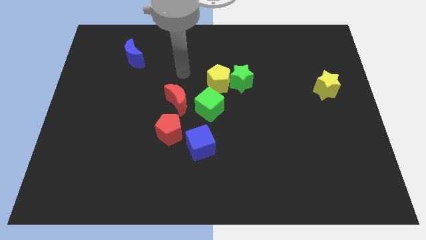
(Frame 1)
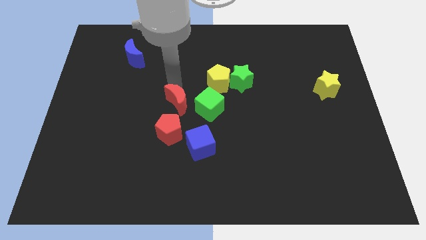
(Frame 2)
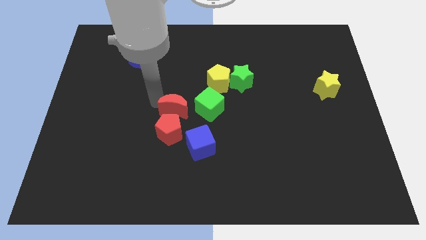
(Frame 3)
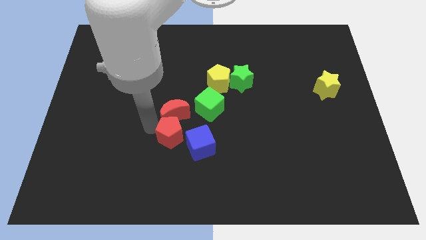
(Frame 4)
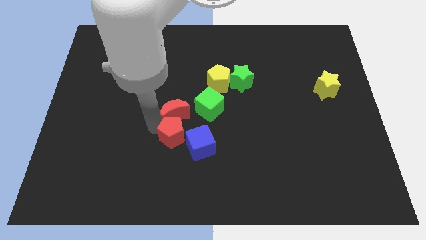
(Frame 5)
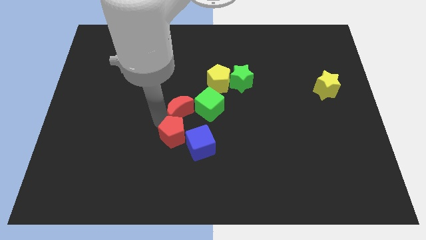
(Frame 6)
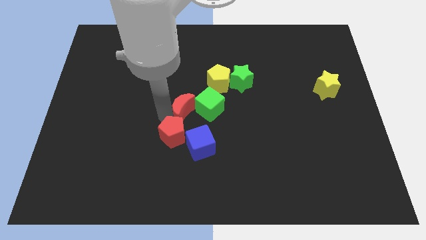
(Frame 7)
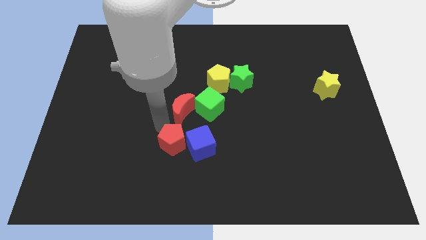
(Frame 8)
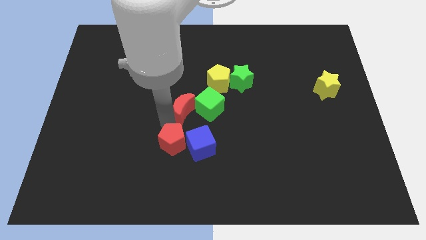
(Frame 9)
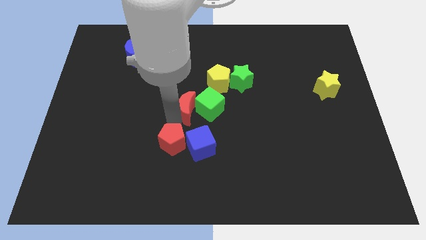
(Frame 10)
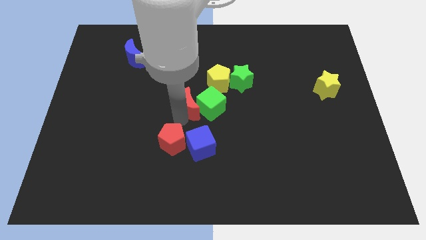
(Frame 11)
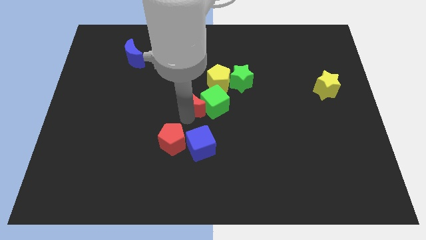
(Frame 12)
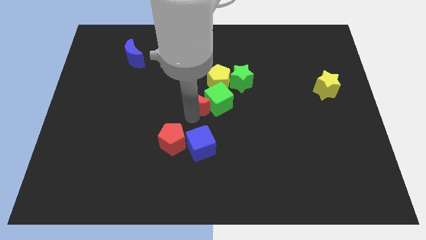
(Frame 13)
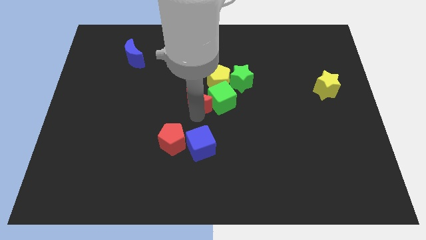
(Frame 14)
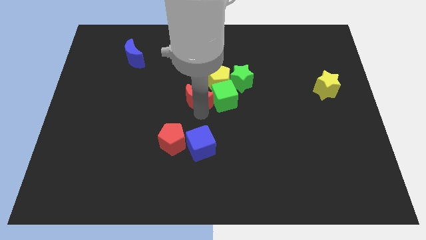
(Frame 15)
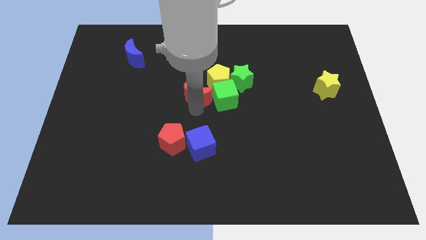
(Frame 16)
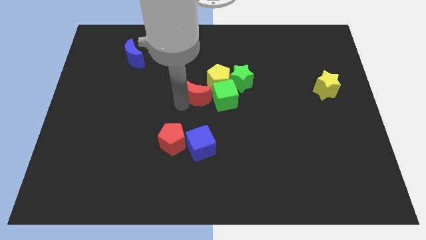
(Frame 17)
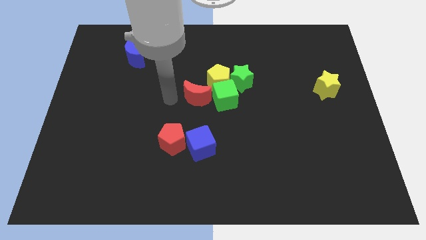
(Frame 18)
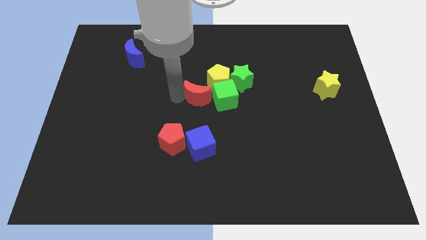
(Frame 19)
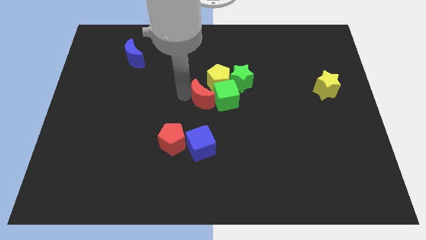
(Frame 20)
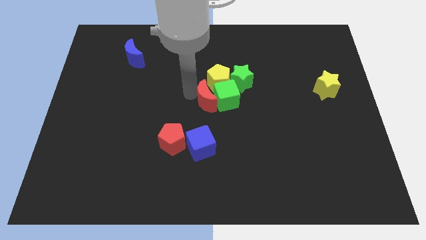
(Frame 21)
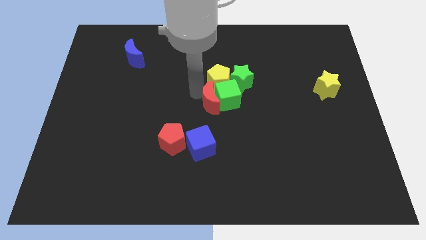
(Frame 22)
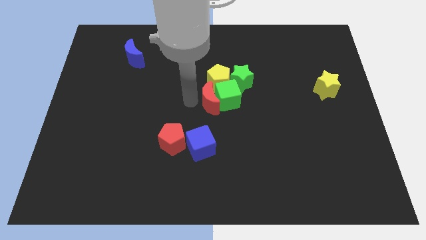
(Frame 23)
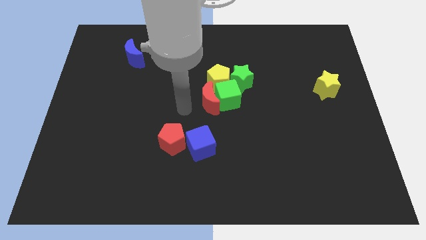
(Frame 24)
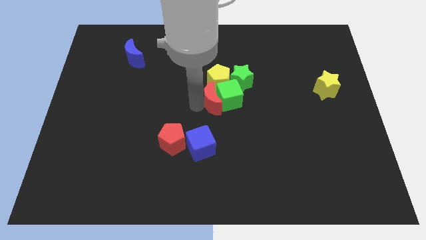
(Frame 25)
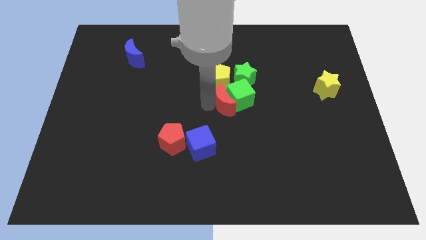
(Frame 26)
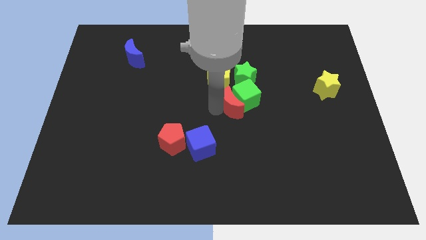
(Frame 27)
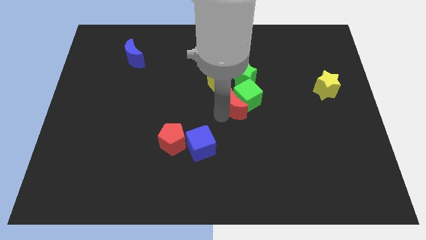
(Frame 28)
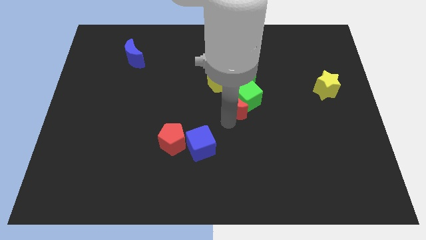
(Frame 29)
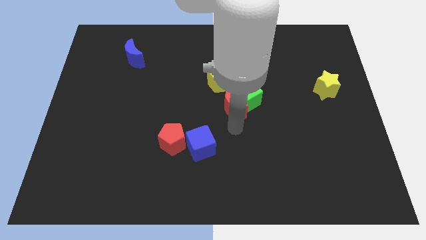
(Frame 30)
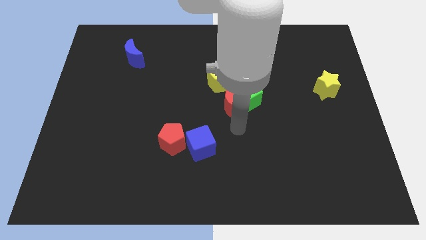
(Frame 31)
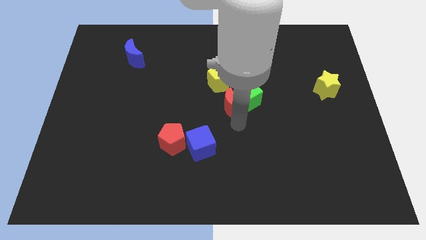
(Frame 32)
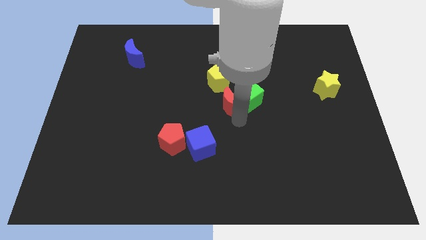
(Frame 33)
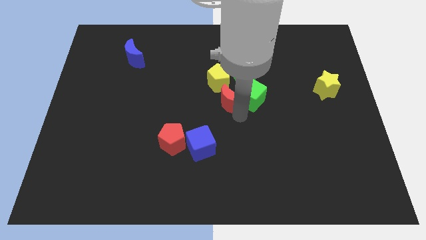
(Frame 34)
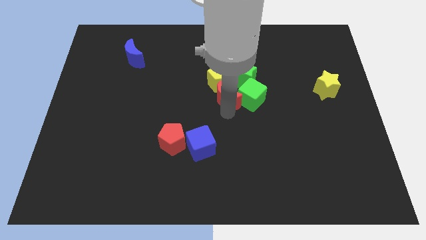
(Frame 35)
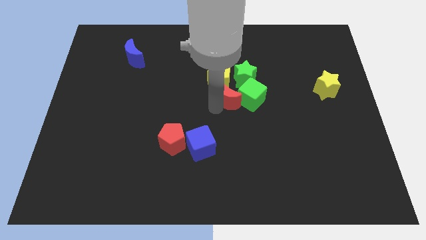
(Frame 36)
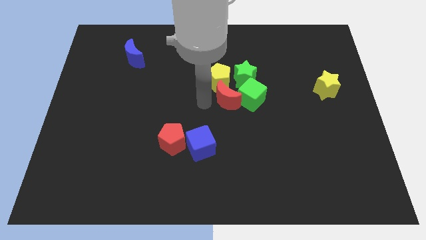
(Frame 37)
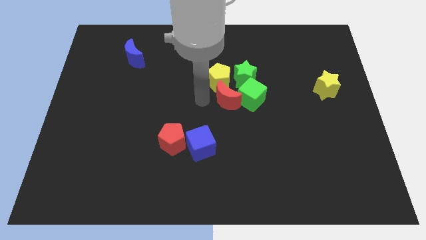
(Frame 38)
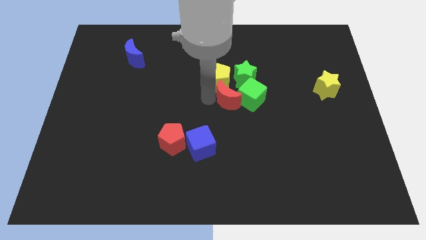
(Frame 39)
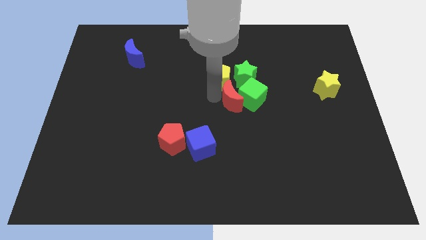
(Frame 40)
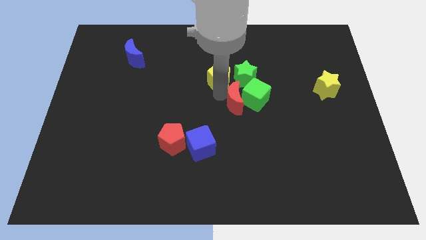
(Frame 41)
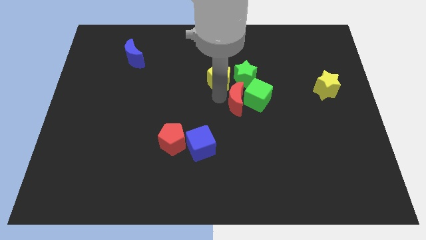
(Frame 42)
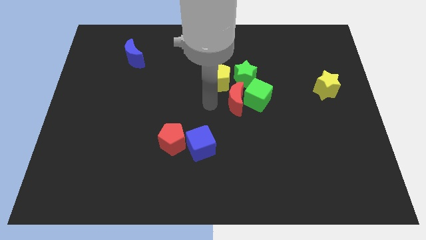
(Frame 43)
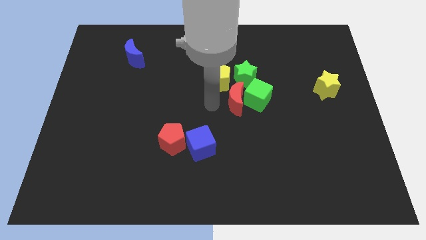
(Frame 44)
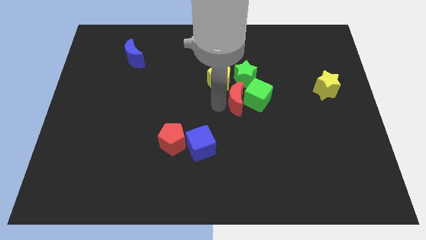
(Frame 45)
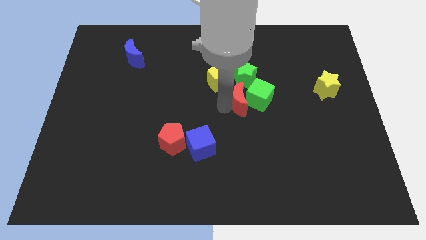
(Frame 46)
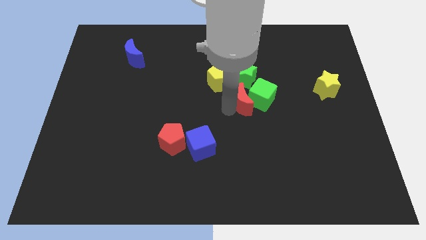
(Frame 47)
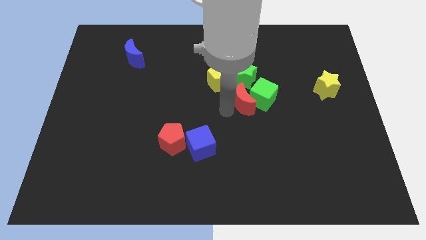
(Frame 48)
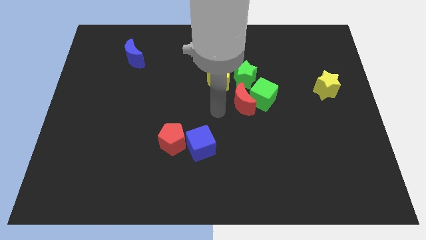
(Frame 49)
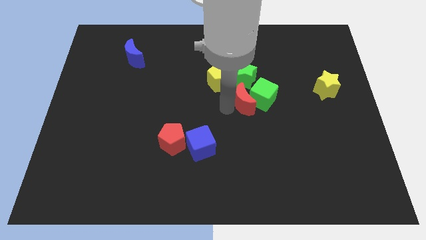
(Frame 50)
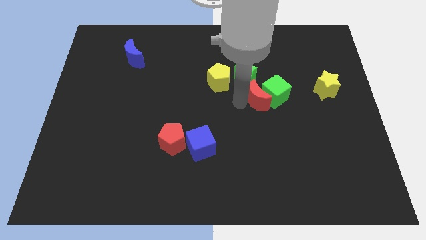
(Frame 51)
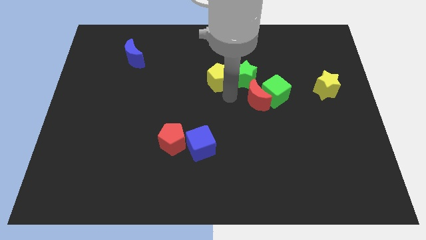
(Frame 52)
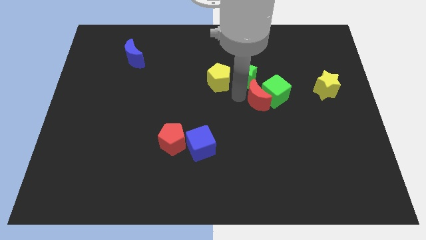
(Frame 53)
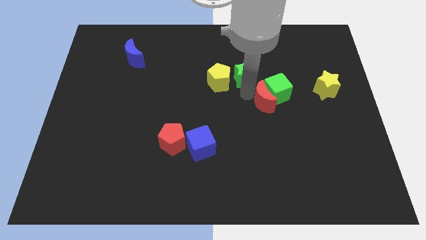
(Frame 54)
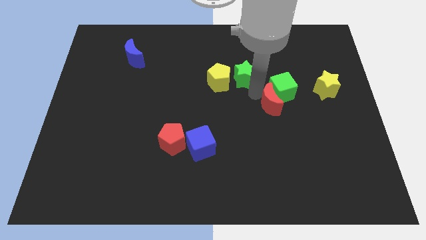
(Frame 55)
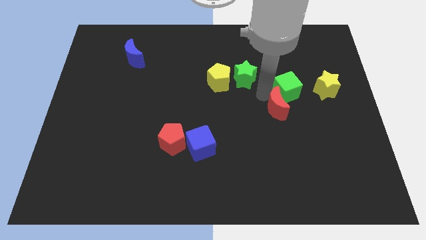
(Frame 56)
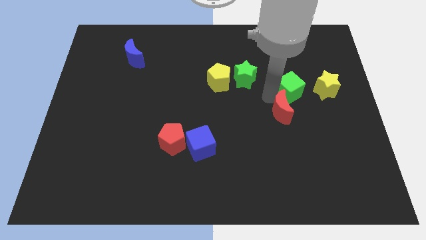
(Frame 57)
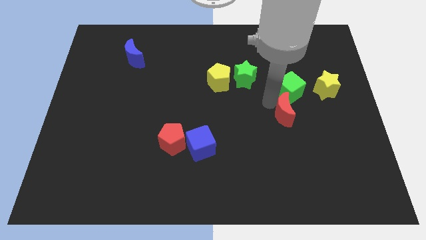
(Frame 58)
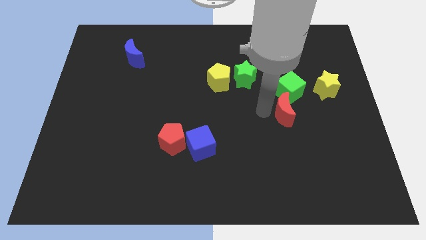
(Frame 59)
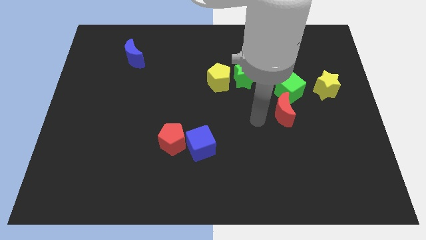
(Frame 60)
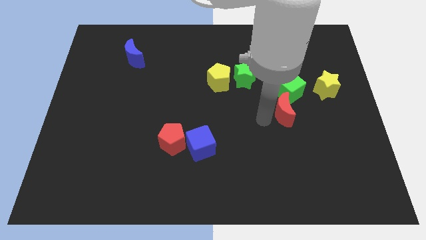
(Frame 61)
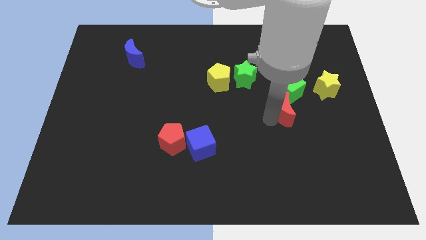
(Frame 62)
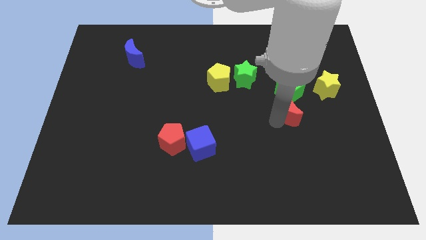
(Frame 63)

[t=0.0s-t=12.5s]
move the red moon diagonally down and to the left of the yellow star

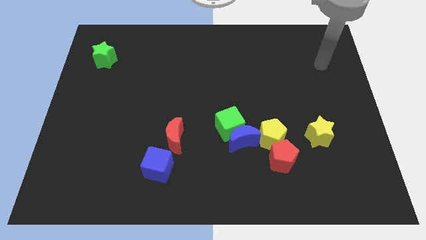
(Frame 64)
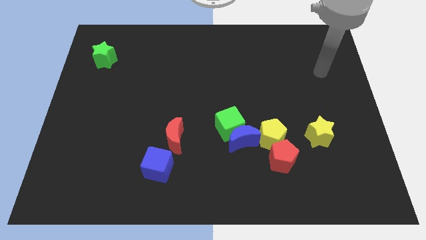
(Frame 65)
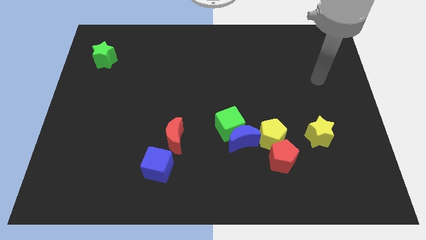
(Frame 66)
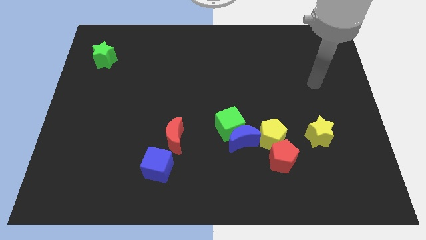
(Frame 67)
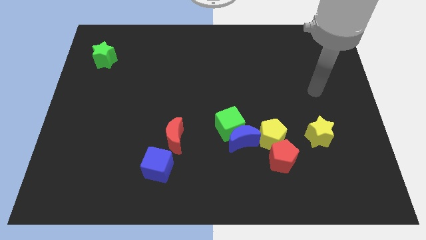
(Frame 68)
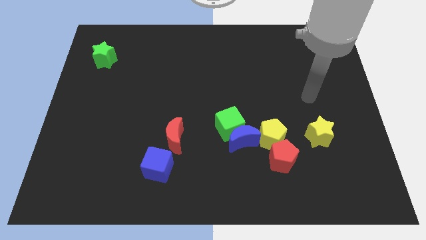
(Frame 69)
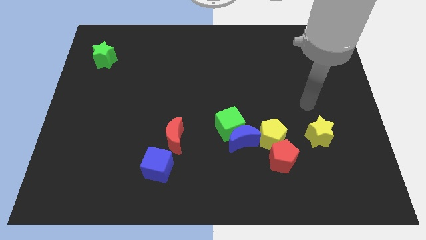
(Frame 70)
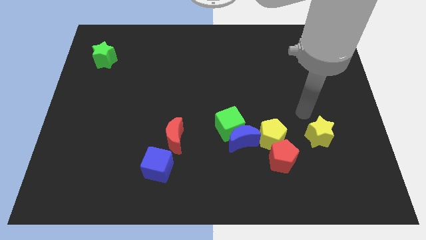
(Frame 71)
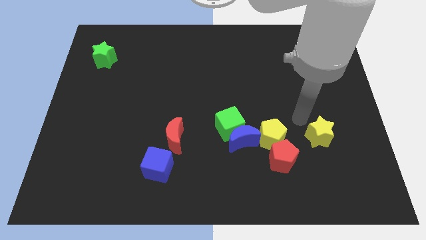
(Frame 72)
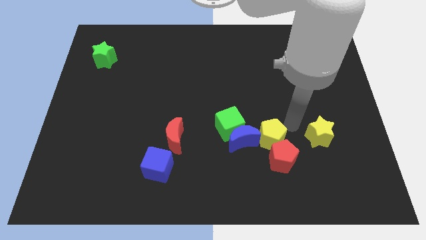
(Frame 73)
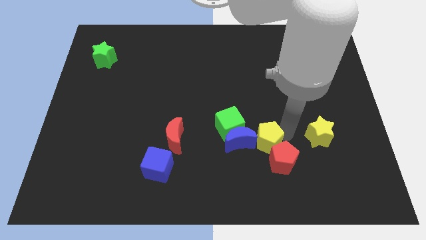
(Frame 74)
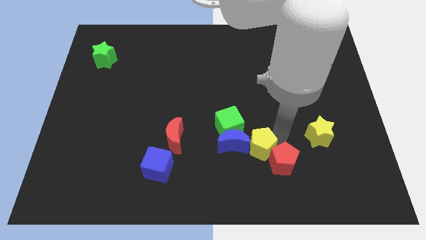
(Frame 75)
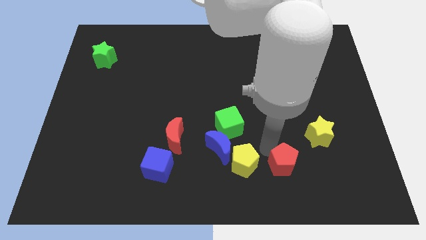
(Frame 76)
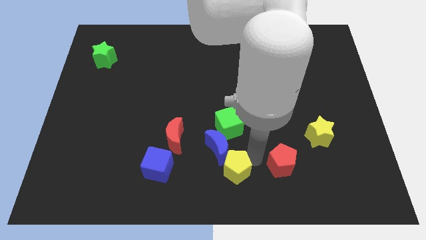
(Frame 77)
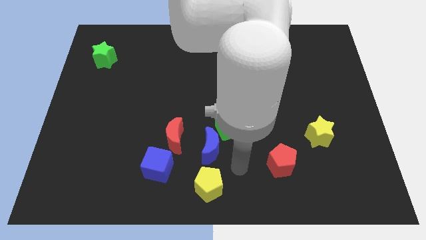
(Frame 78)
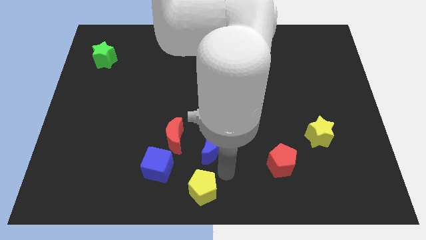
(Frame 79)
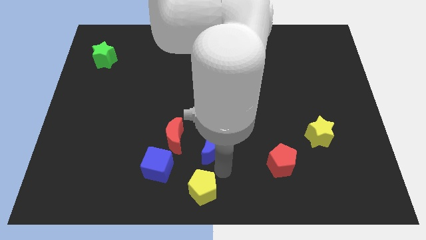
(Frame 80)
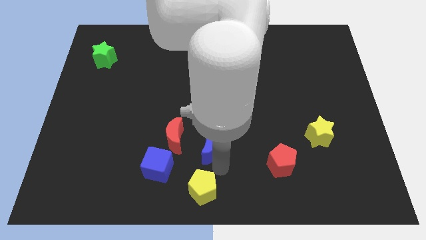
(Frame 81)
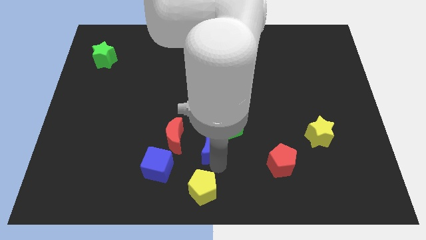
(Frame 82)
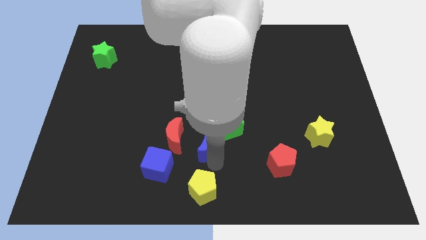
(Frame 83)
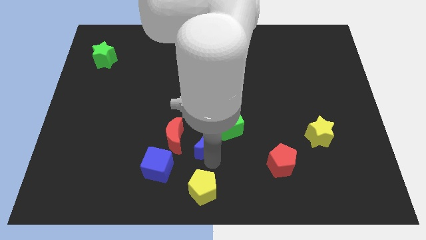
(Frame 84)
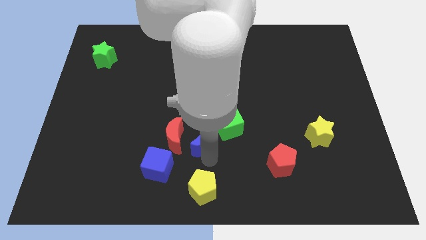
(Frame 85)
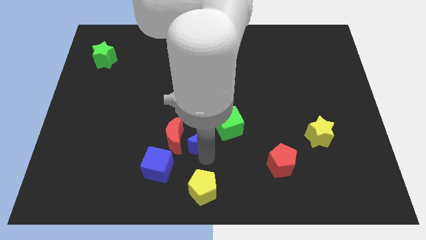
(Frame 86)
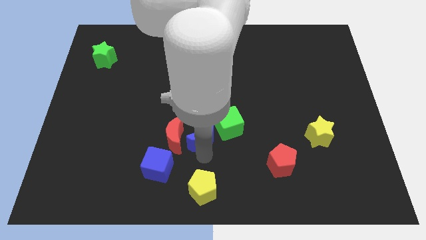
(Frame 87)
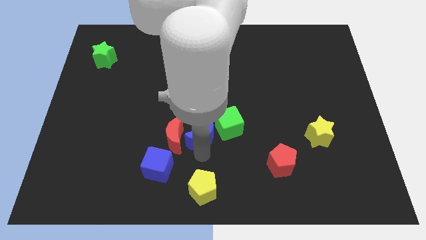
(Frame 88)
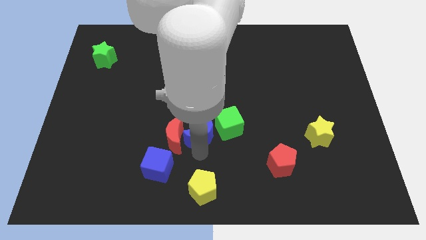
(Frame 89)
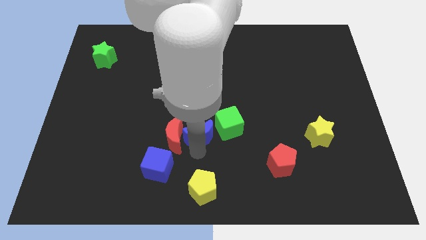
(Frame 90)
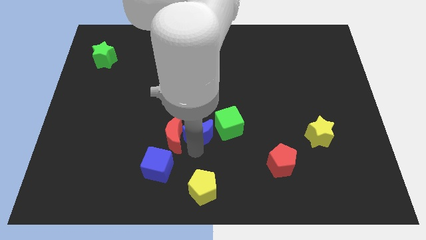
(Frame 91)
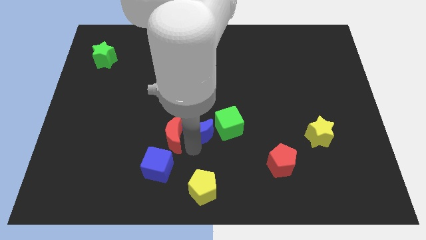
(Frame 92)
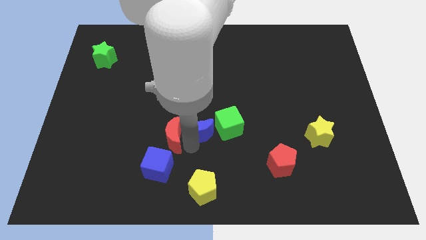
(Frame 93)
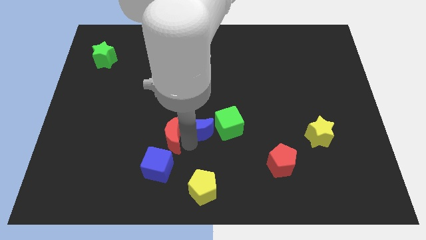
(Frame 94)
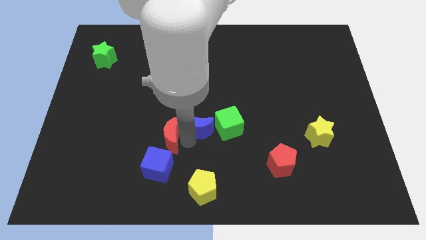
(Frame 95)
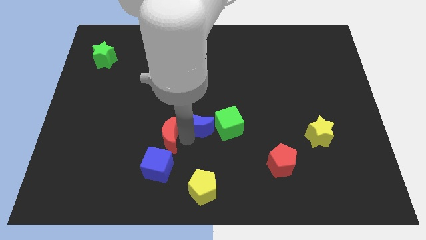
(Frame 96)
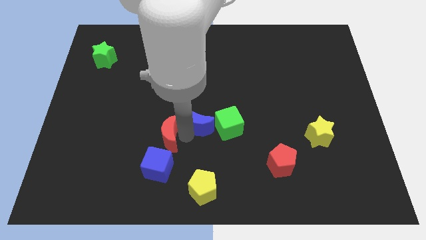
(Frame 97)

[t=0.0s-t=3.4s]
put the blue moon to the top left side of the green cube
